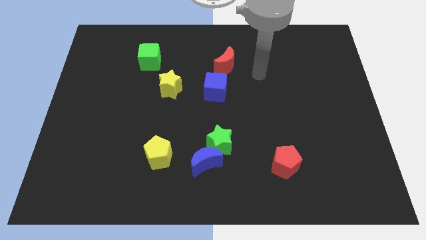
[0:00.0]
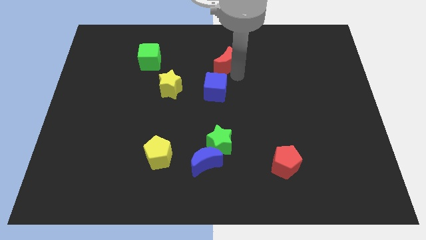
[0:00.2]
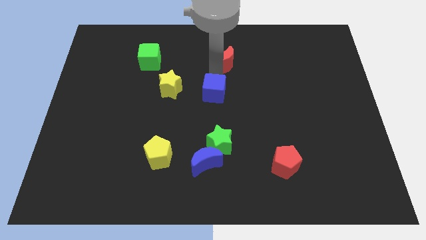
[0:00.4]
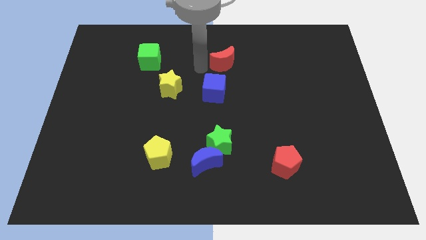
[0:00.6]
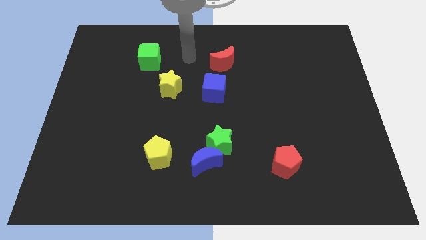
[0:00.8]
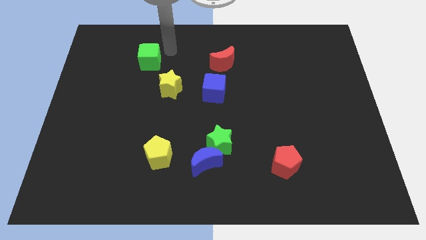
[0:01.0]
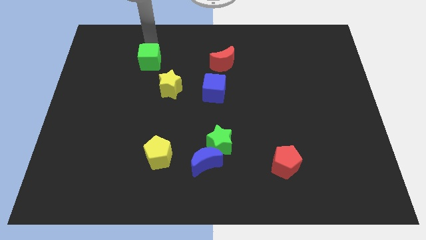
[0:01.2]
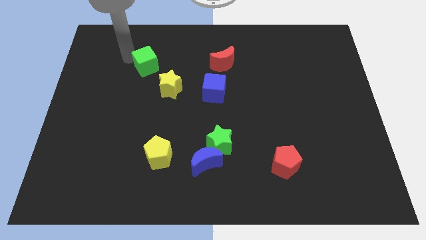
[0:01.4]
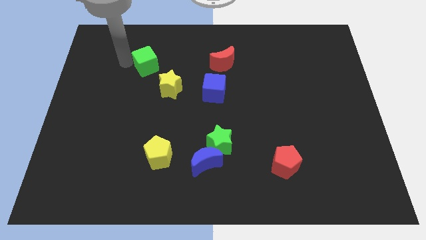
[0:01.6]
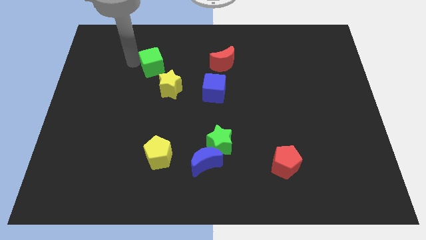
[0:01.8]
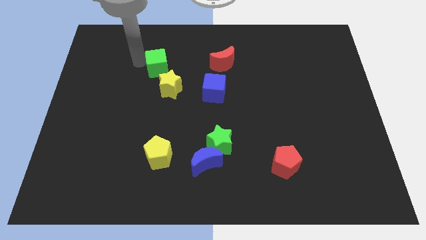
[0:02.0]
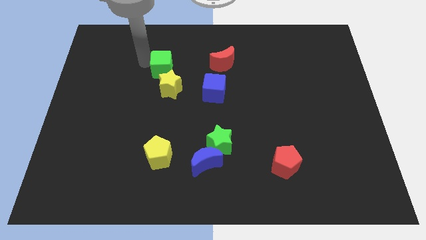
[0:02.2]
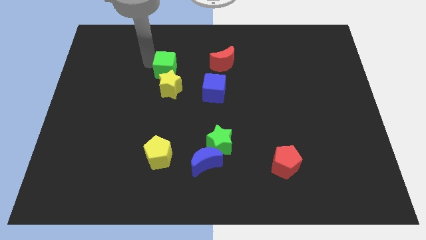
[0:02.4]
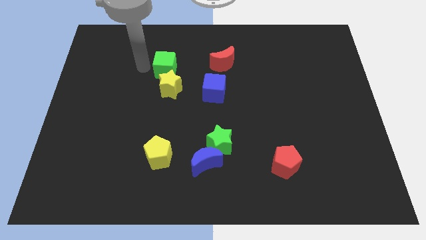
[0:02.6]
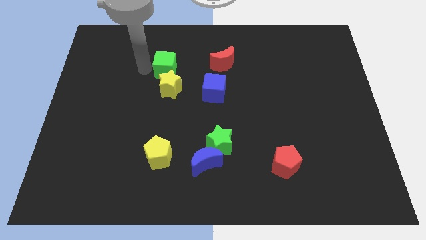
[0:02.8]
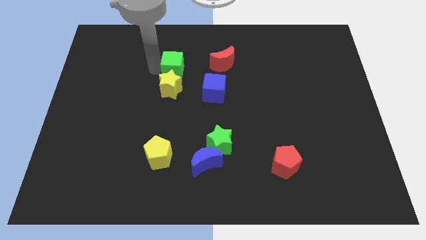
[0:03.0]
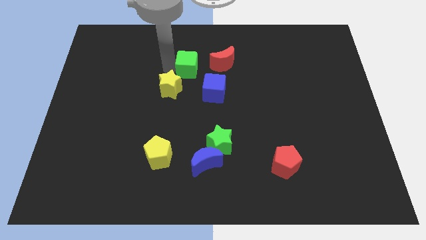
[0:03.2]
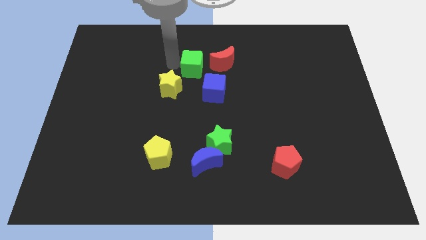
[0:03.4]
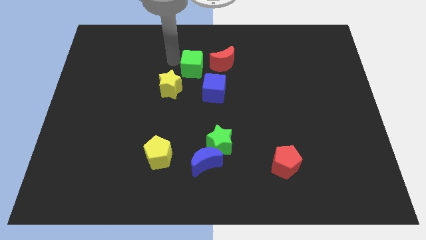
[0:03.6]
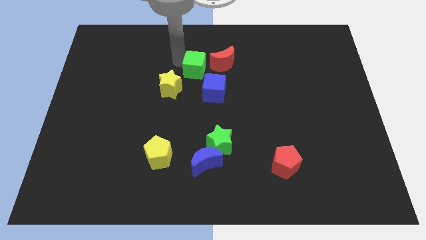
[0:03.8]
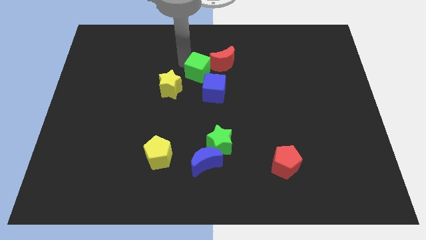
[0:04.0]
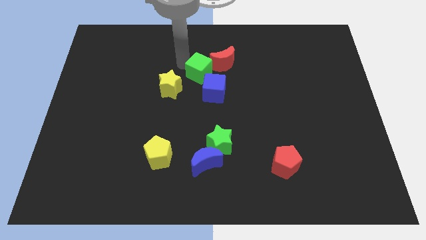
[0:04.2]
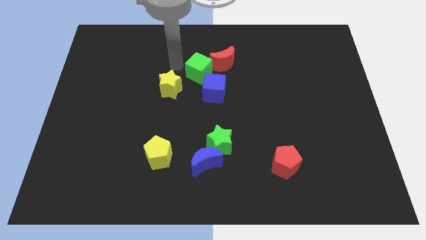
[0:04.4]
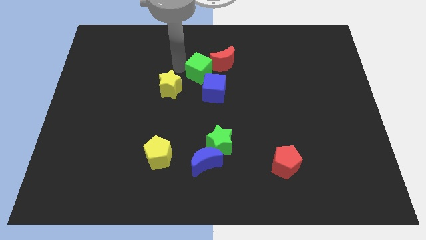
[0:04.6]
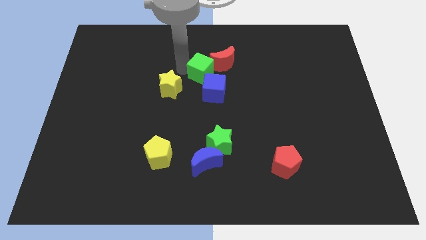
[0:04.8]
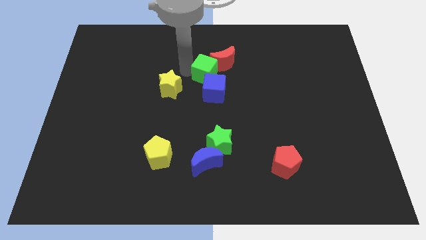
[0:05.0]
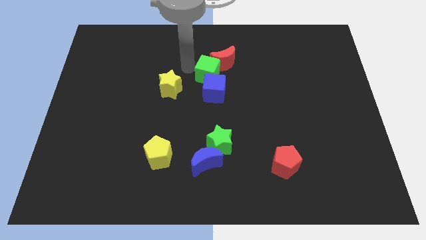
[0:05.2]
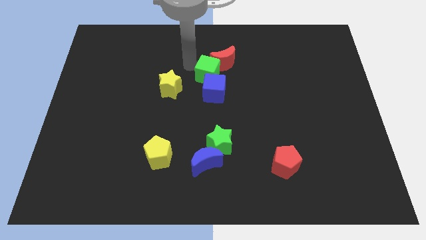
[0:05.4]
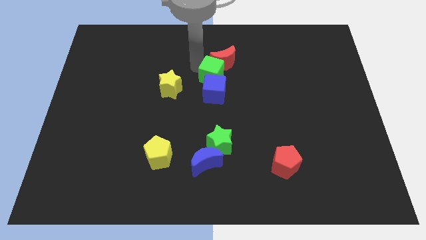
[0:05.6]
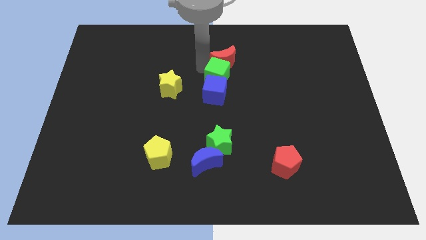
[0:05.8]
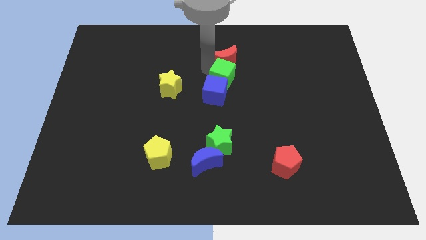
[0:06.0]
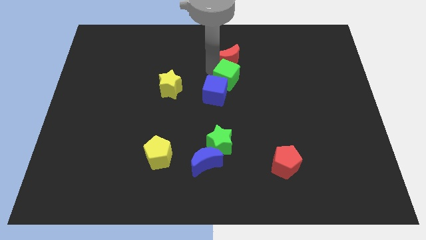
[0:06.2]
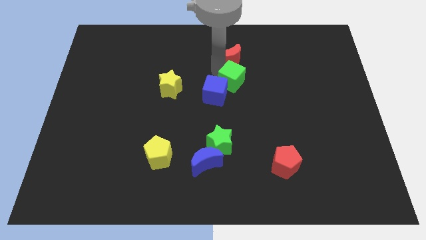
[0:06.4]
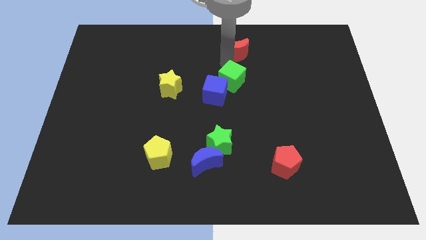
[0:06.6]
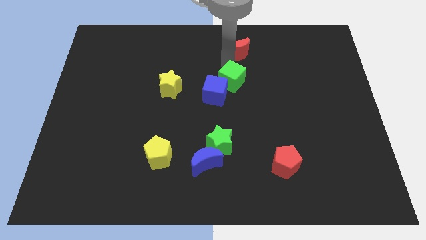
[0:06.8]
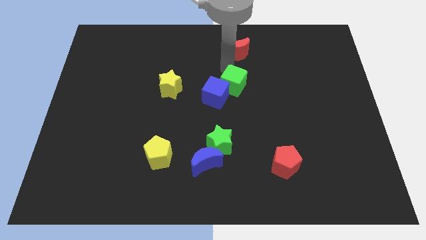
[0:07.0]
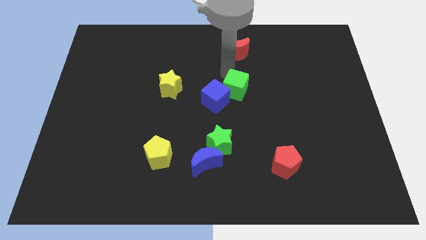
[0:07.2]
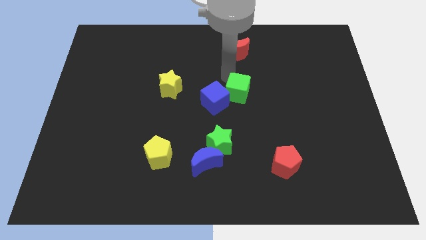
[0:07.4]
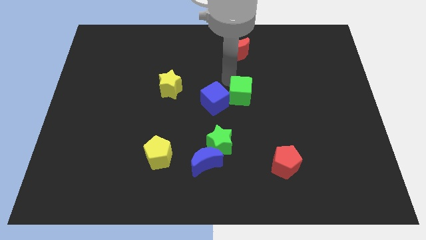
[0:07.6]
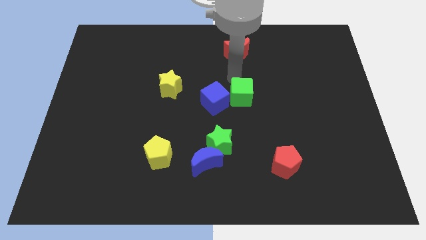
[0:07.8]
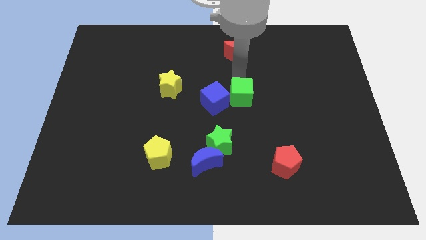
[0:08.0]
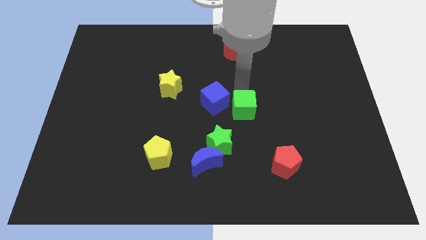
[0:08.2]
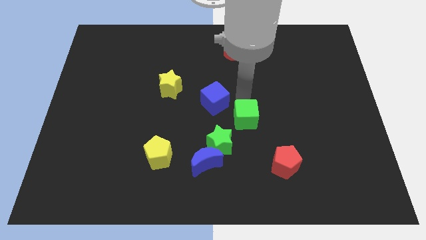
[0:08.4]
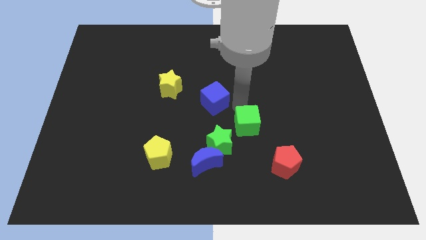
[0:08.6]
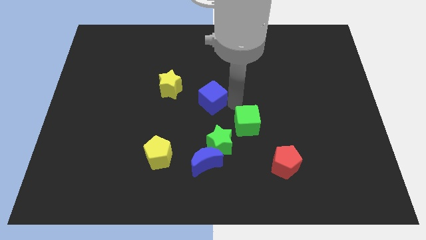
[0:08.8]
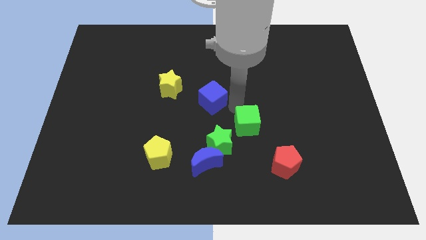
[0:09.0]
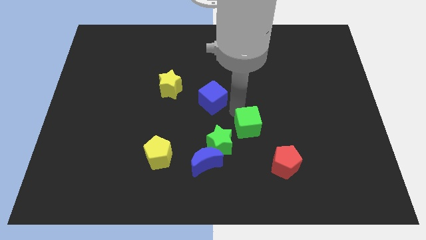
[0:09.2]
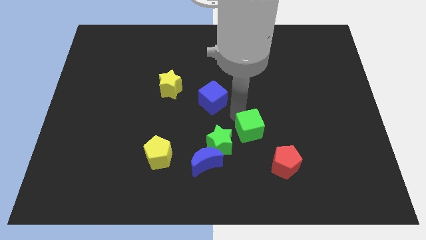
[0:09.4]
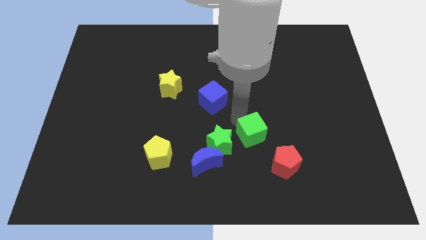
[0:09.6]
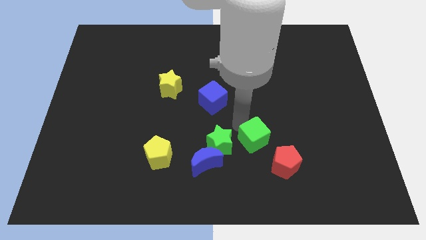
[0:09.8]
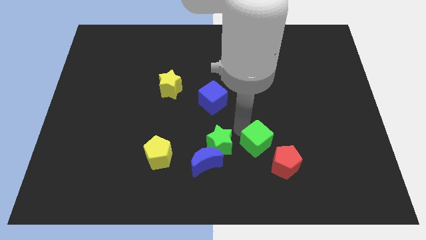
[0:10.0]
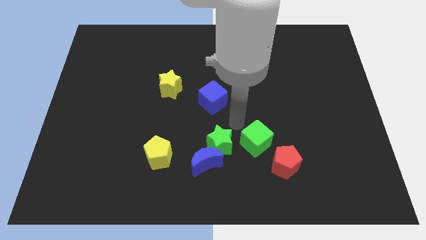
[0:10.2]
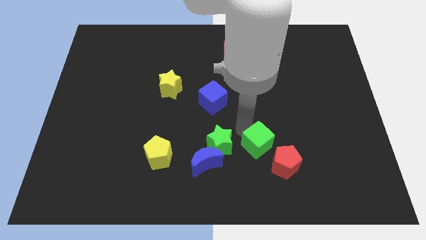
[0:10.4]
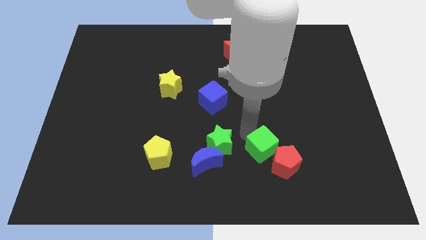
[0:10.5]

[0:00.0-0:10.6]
slide the green cube close to the red pentagon
